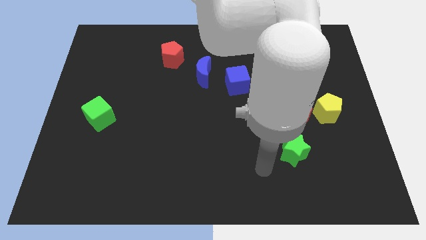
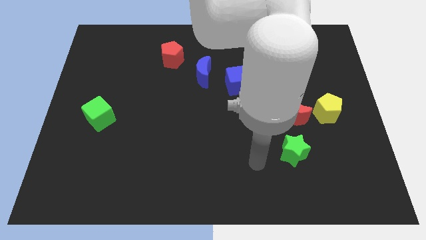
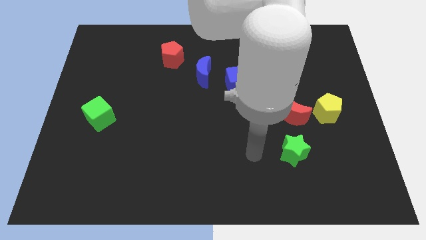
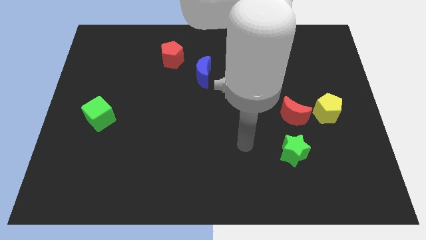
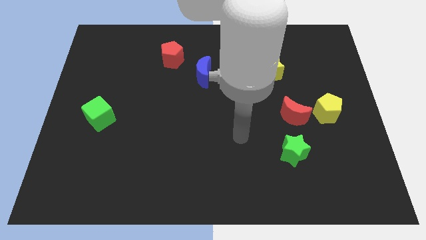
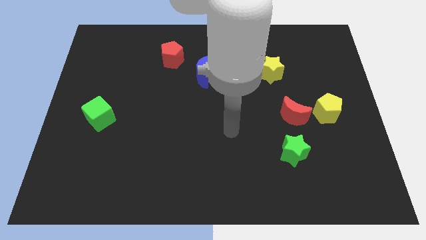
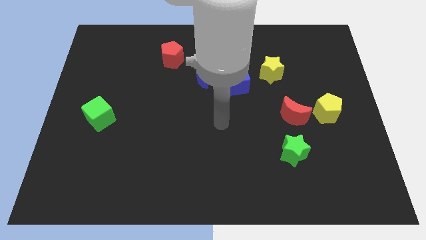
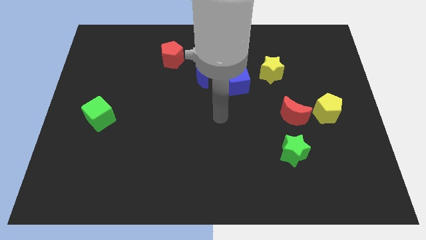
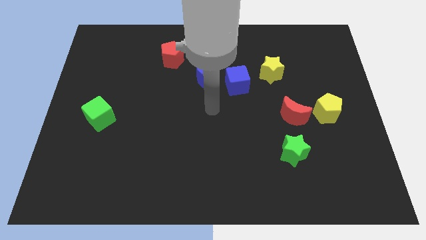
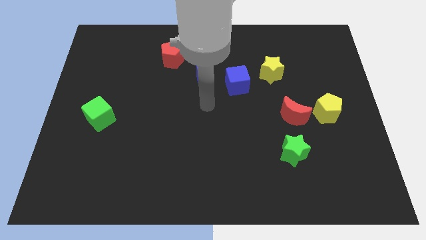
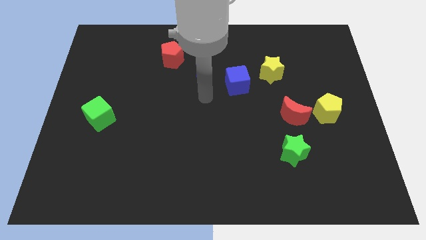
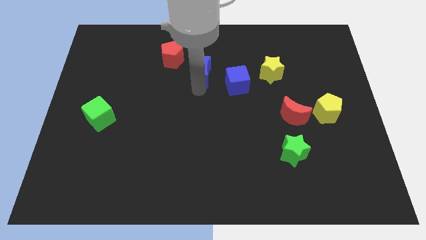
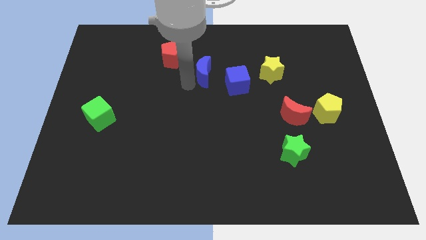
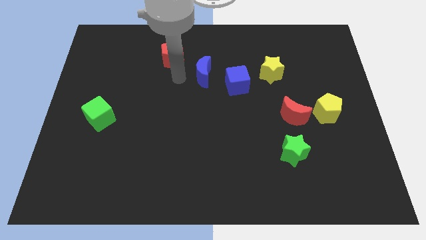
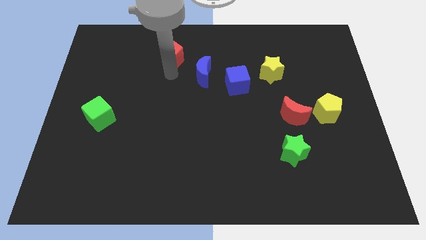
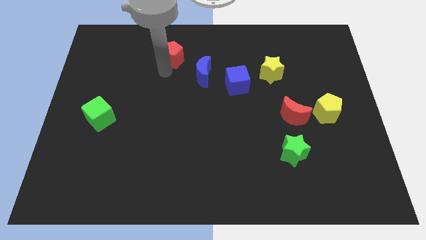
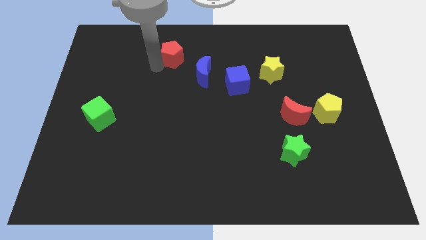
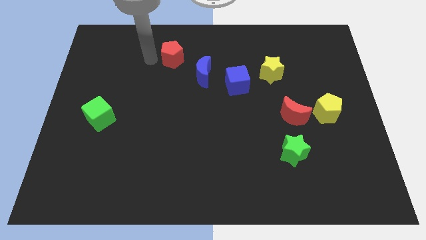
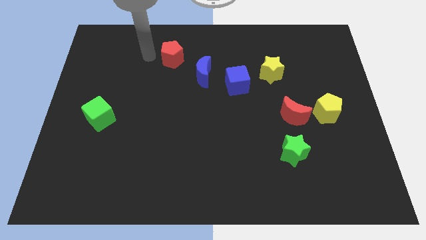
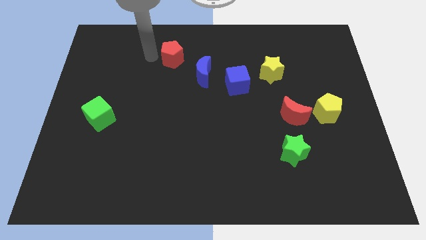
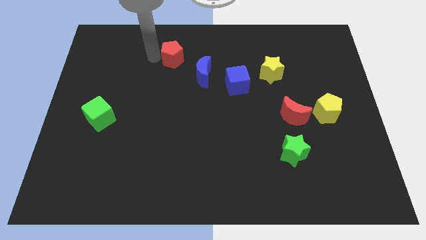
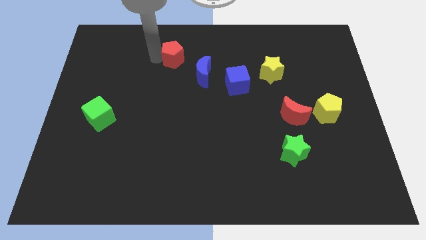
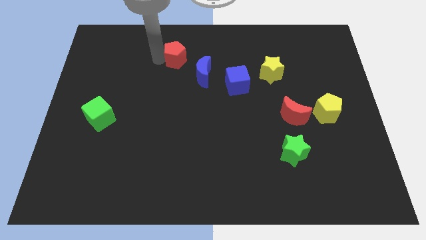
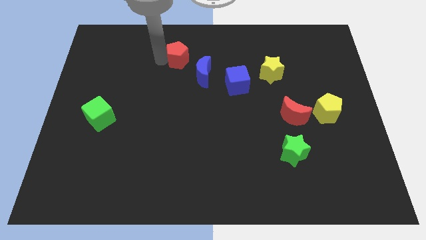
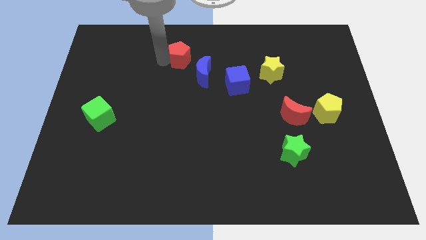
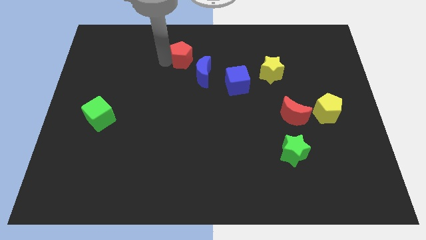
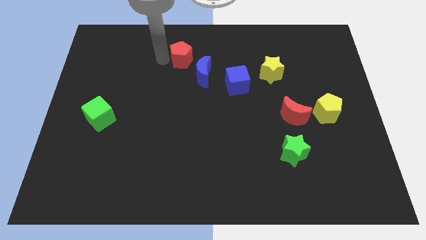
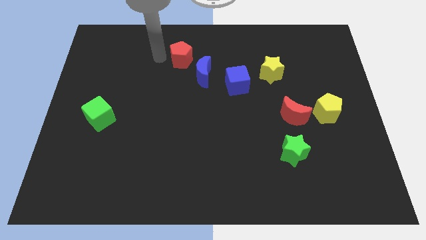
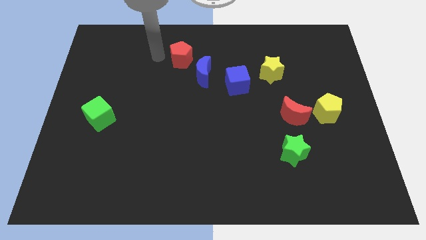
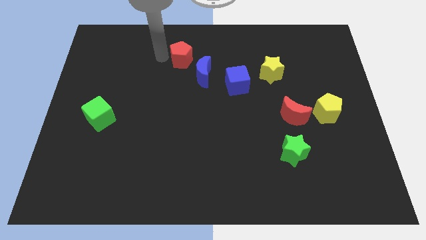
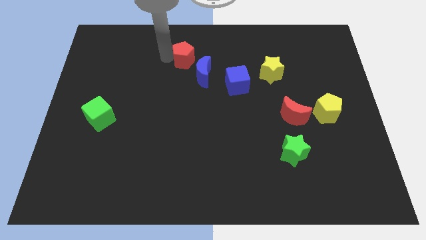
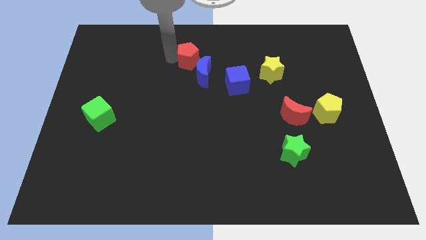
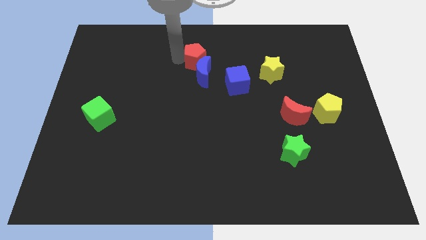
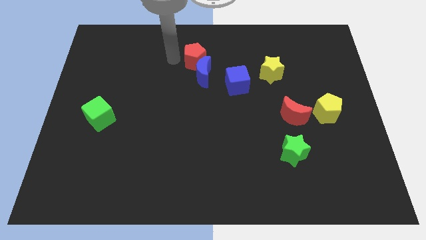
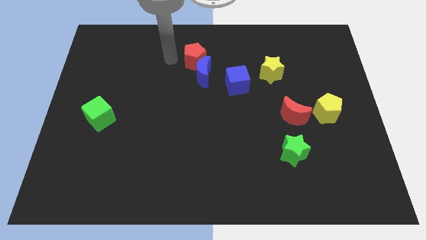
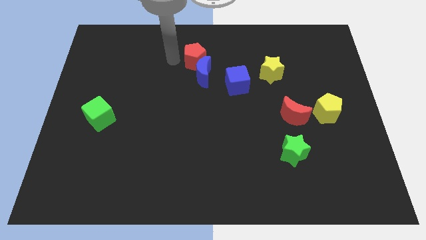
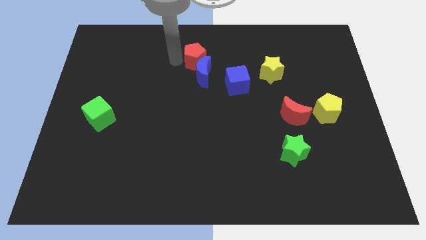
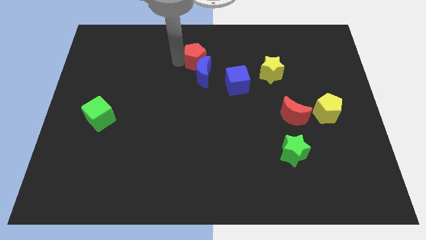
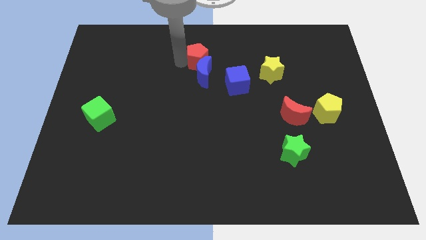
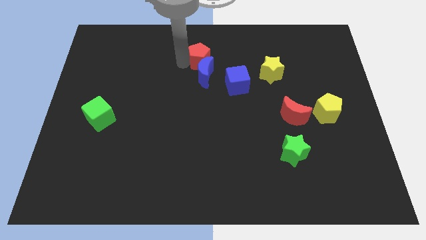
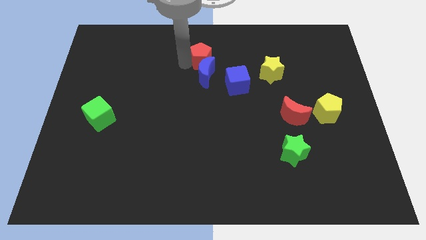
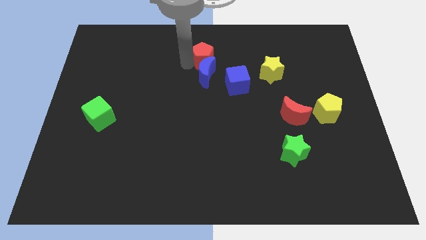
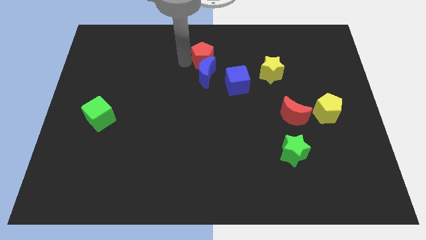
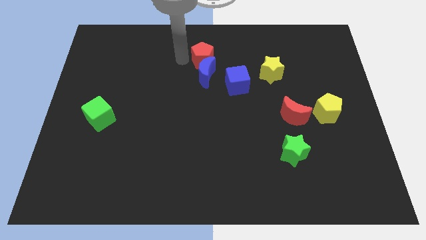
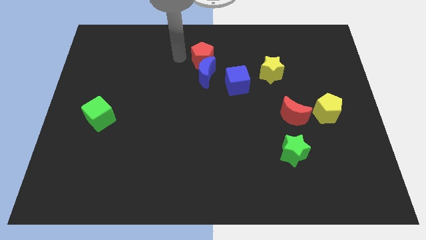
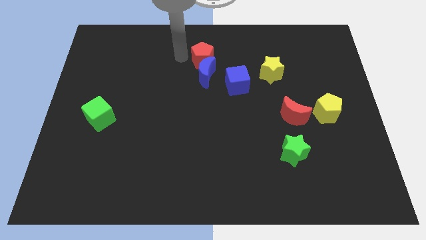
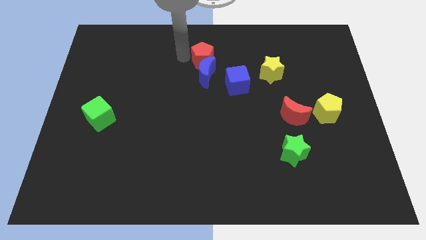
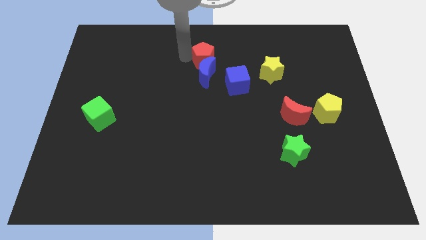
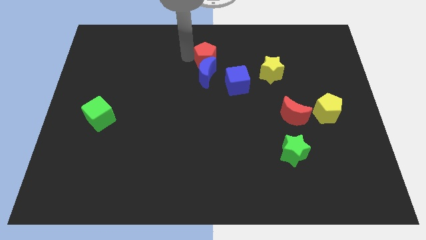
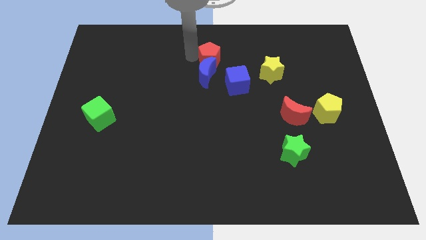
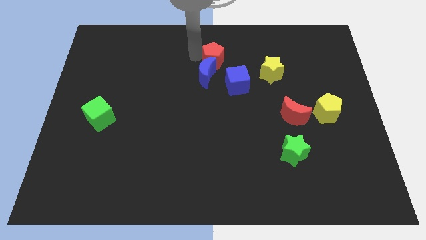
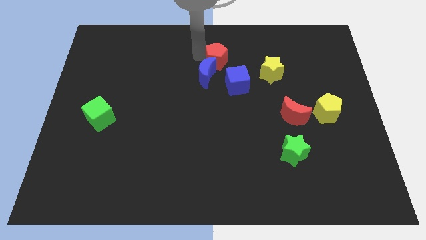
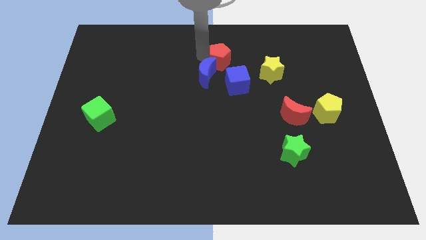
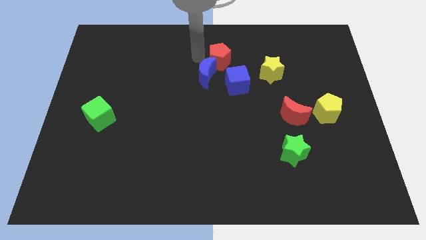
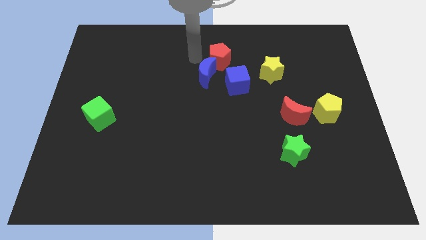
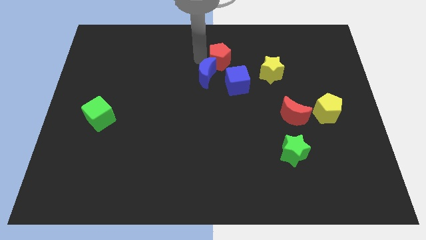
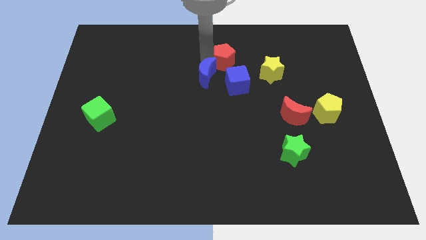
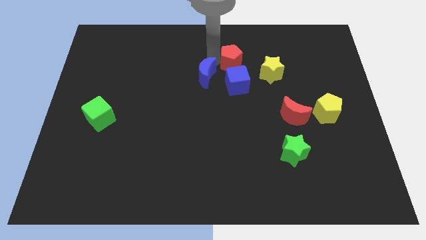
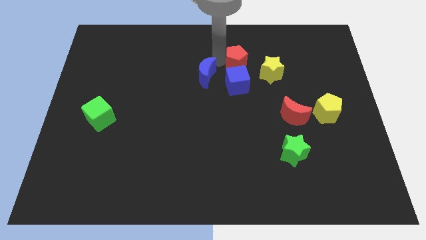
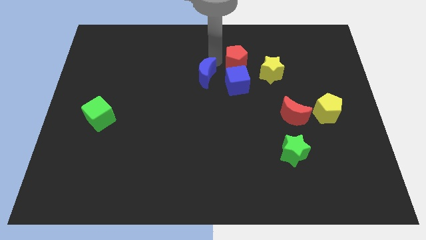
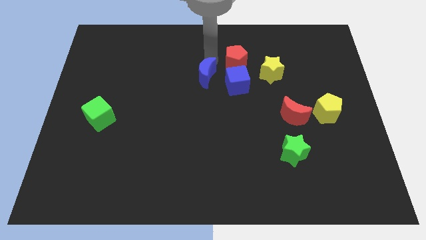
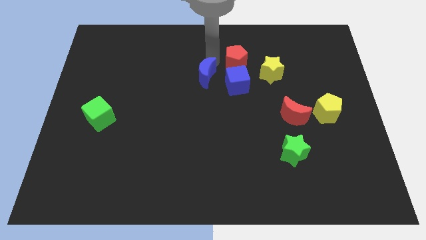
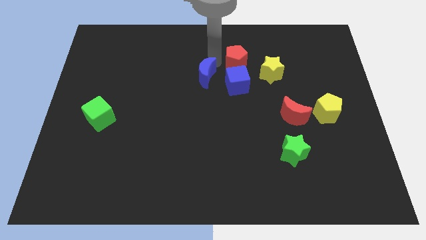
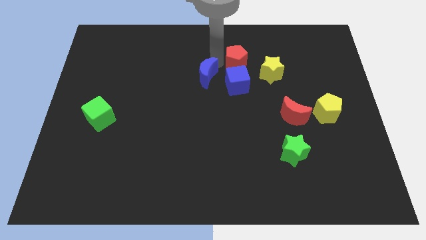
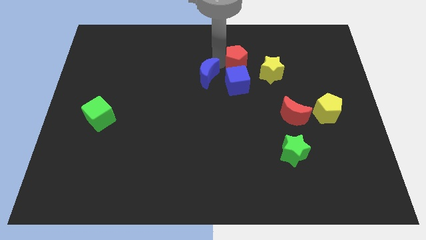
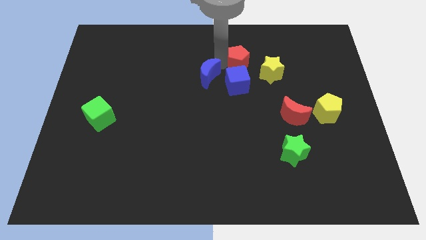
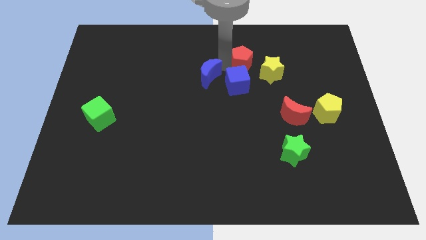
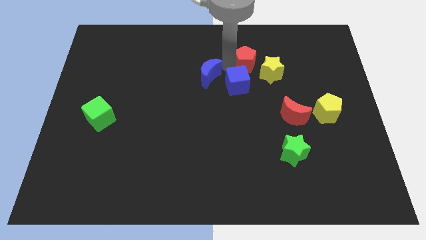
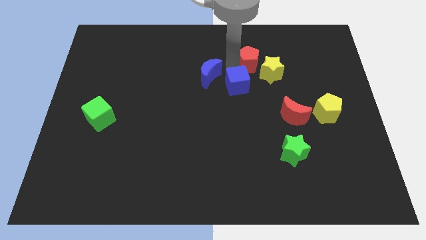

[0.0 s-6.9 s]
slide the red pentagon to the right

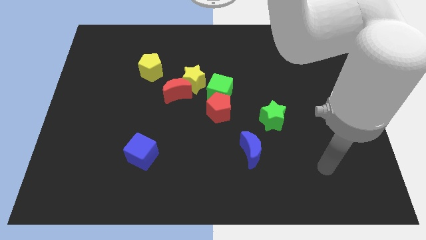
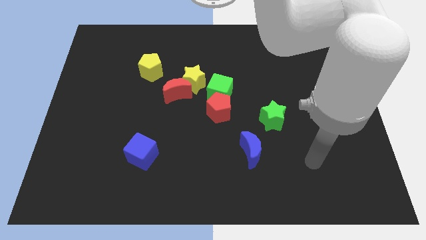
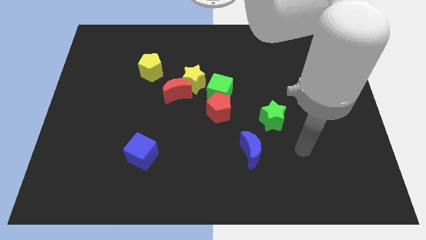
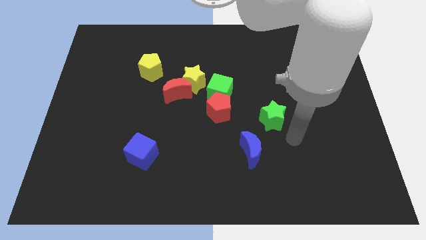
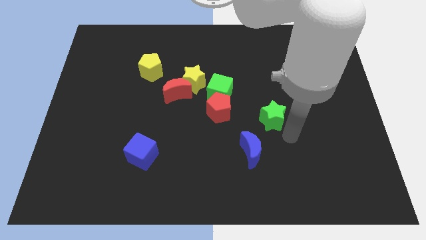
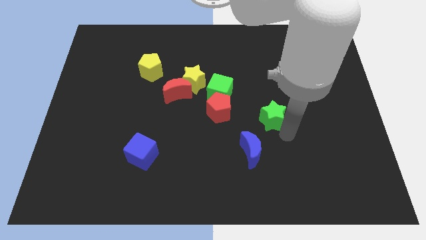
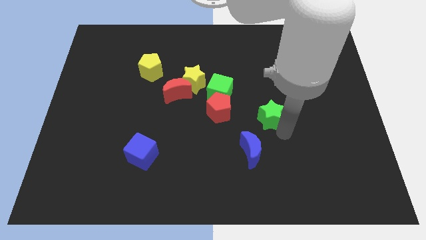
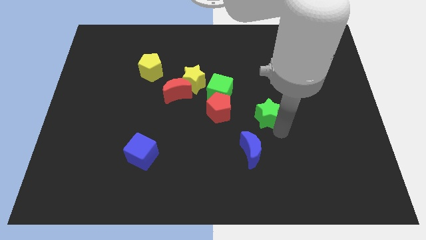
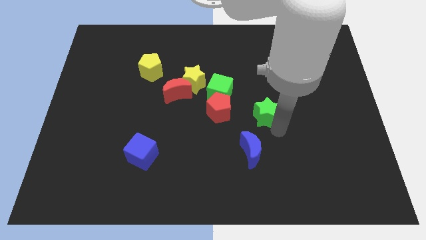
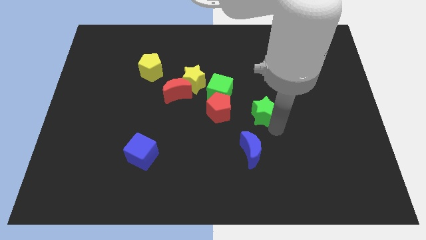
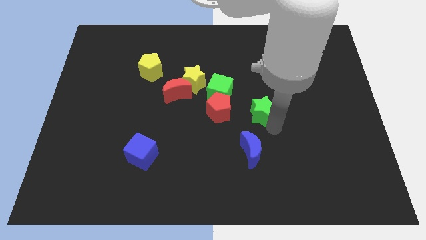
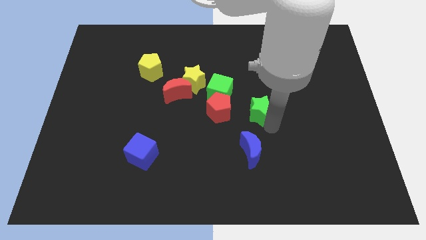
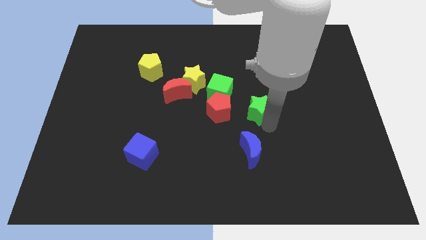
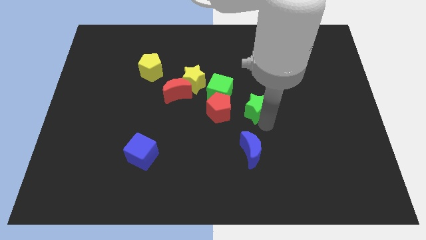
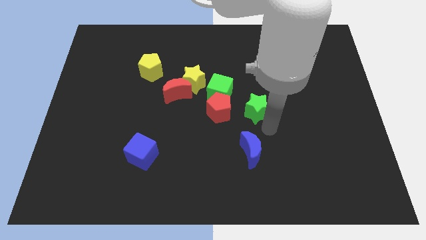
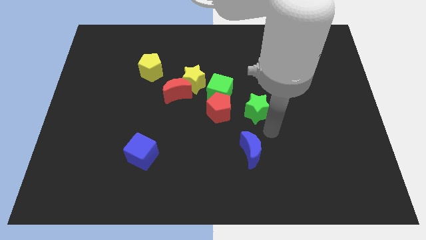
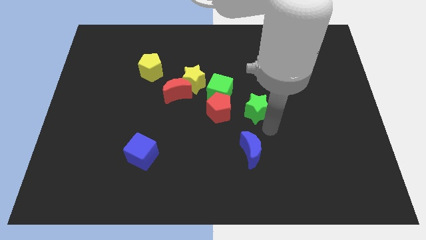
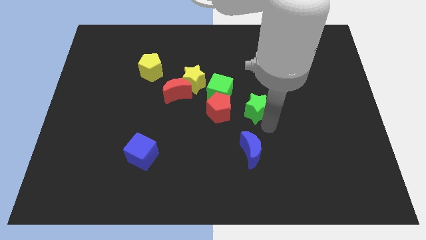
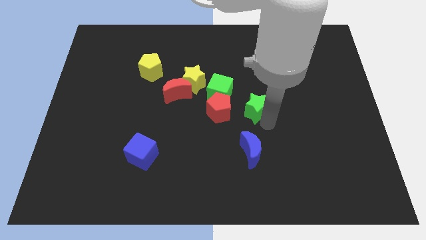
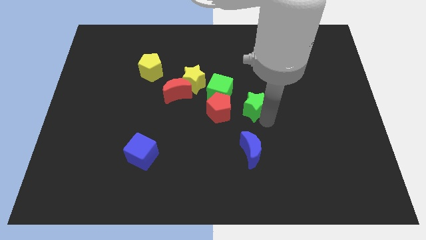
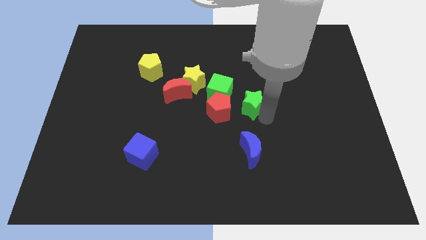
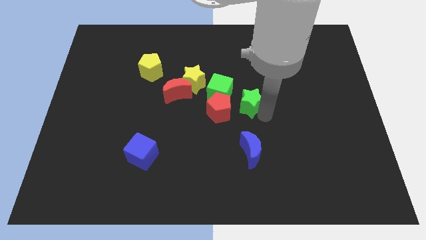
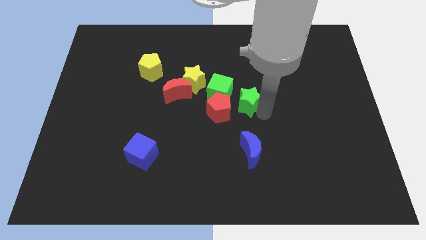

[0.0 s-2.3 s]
slightly slide the green star up and to the left
